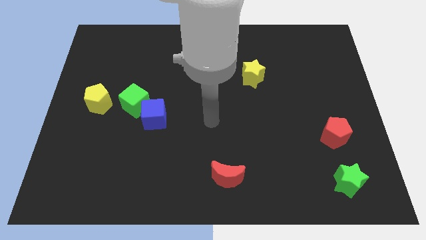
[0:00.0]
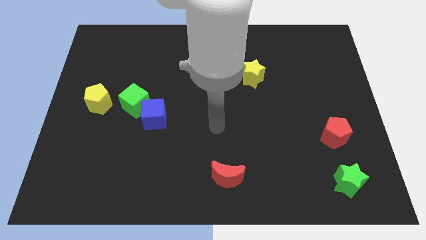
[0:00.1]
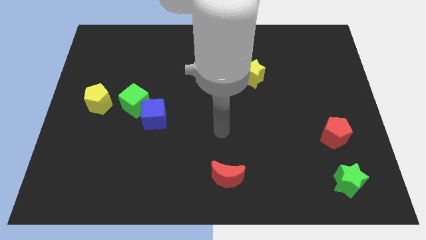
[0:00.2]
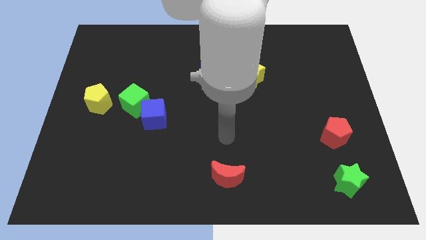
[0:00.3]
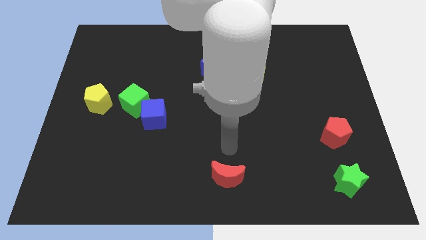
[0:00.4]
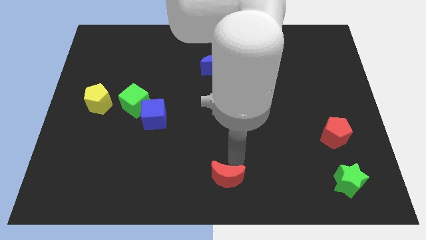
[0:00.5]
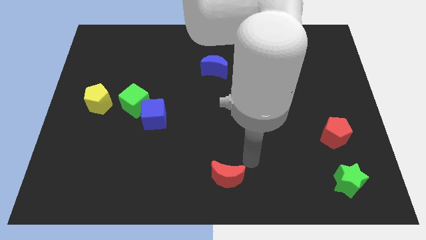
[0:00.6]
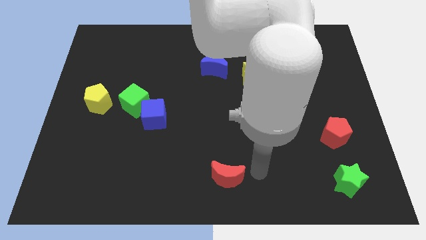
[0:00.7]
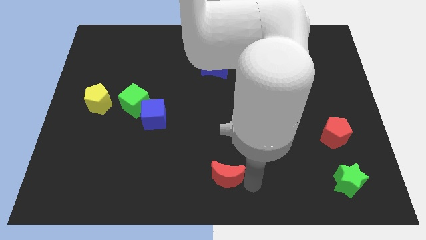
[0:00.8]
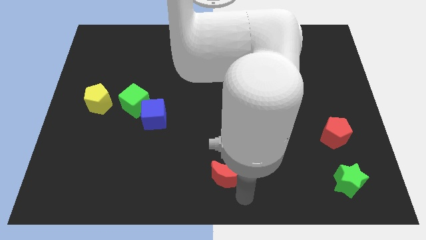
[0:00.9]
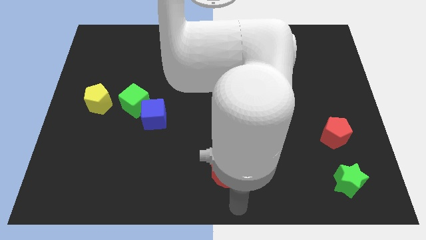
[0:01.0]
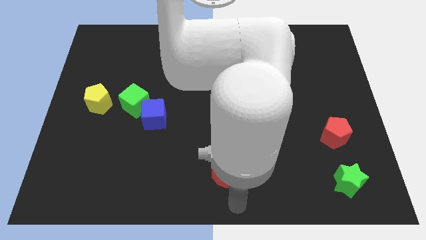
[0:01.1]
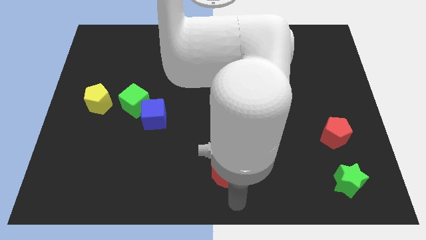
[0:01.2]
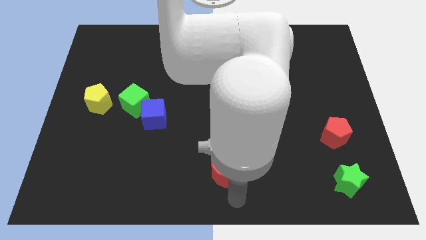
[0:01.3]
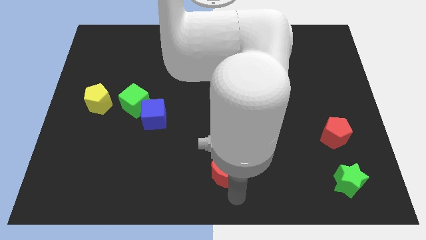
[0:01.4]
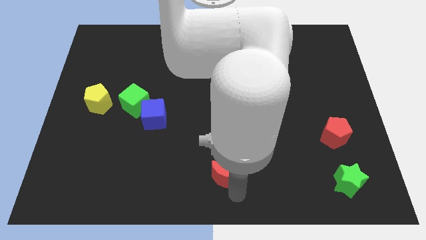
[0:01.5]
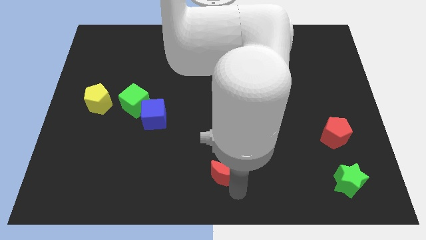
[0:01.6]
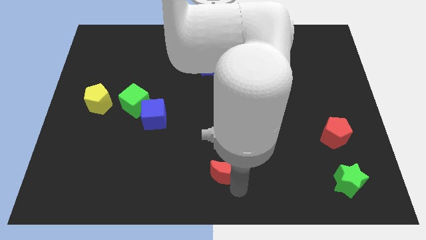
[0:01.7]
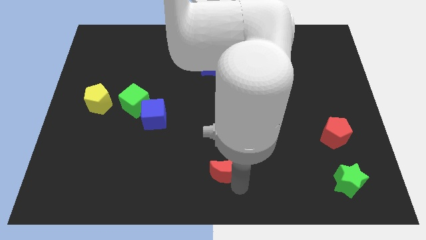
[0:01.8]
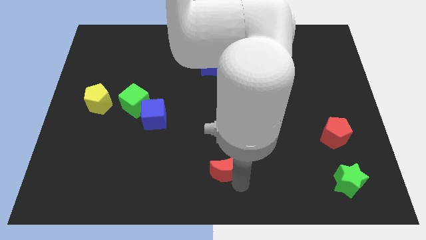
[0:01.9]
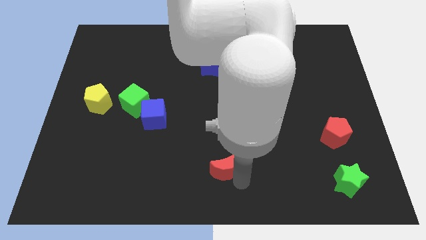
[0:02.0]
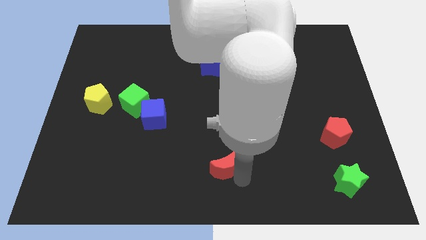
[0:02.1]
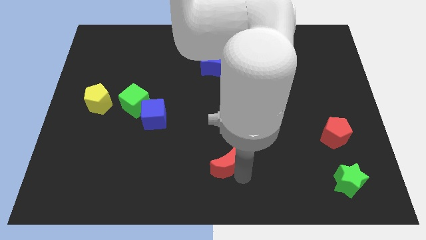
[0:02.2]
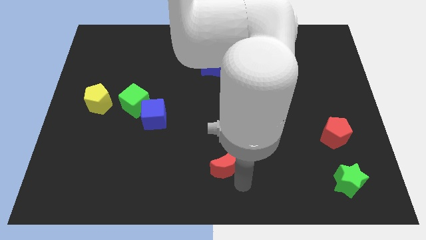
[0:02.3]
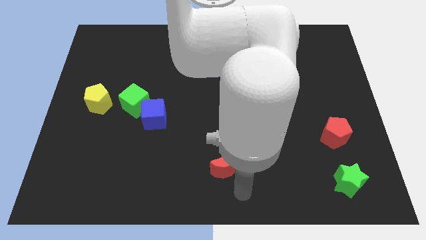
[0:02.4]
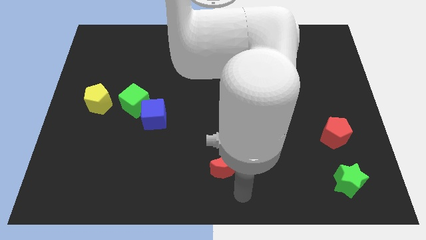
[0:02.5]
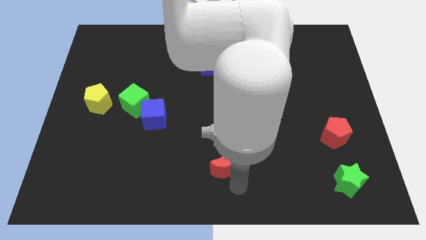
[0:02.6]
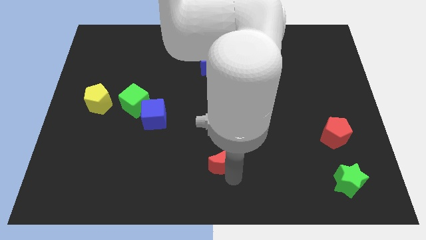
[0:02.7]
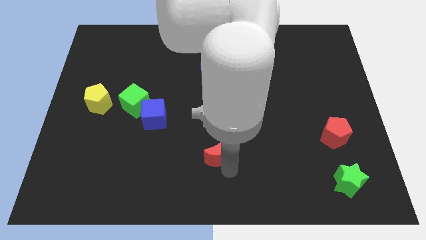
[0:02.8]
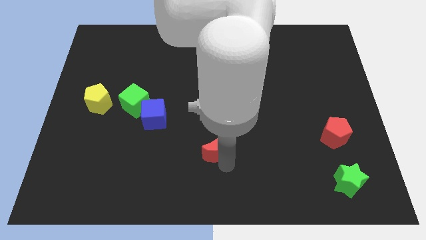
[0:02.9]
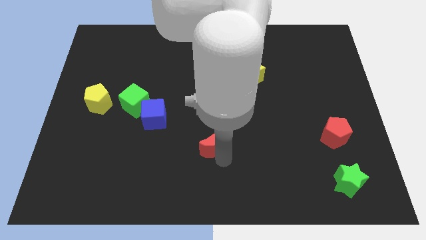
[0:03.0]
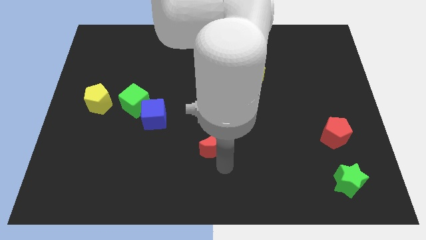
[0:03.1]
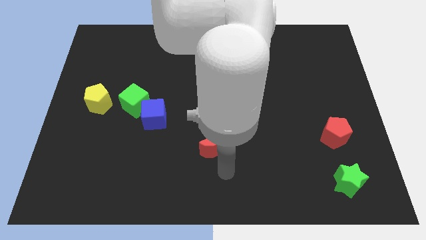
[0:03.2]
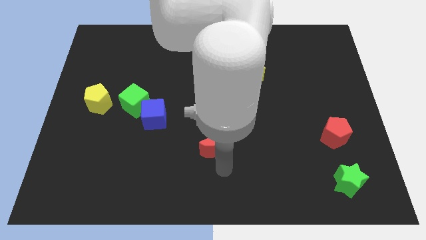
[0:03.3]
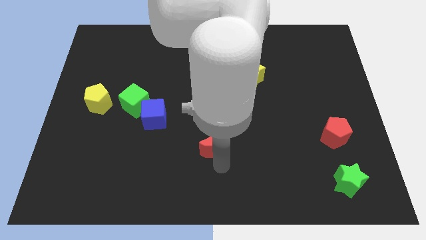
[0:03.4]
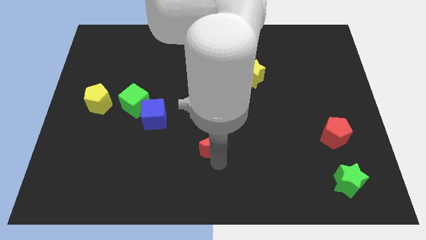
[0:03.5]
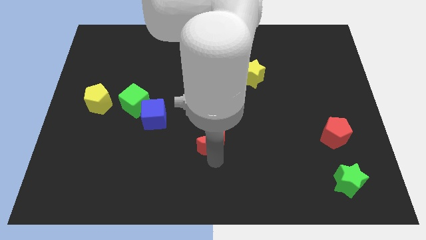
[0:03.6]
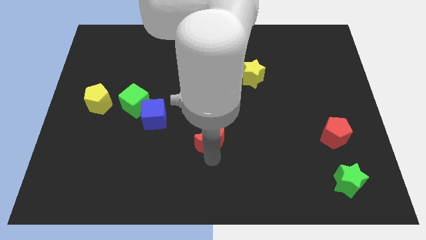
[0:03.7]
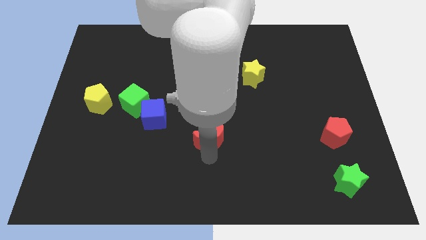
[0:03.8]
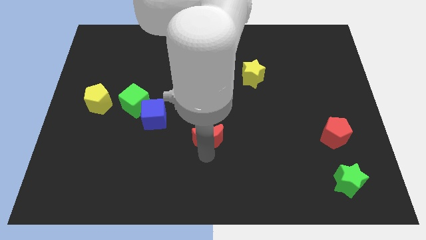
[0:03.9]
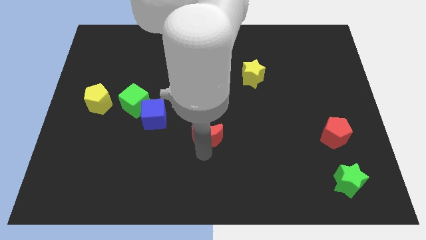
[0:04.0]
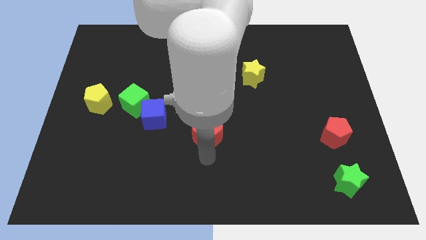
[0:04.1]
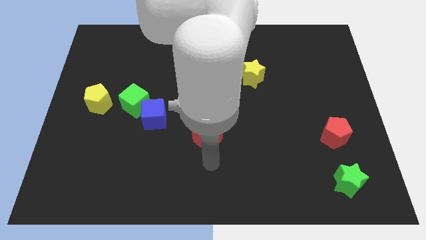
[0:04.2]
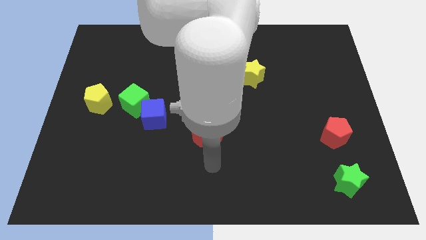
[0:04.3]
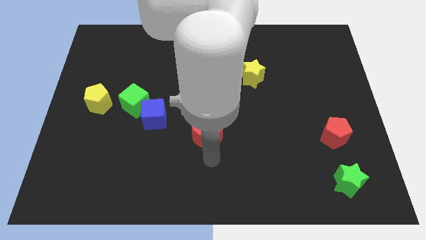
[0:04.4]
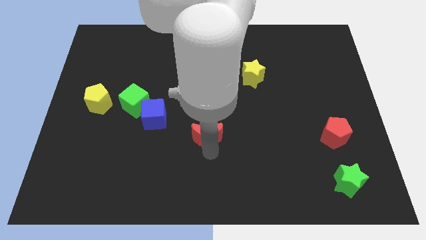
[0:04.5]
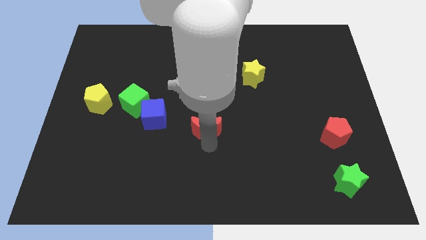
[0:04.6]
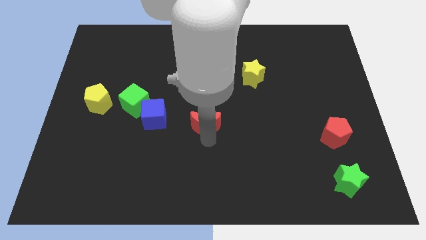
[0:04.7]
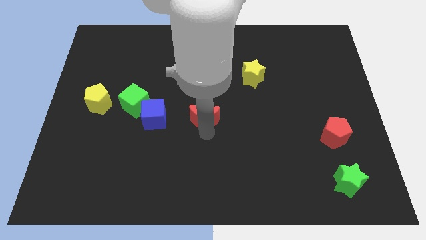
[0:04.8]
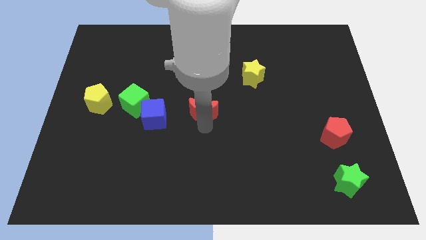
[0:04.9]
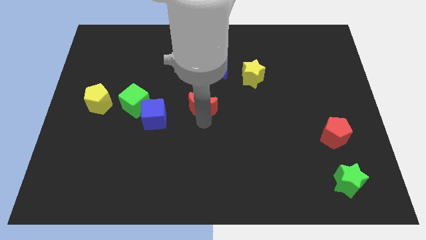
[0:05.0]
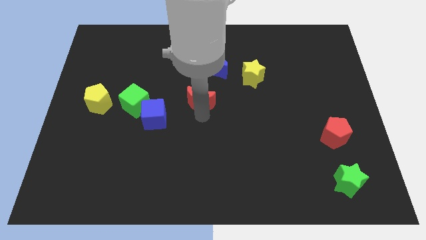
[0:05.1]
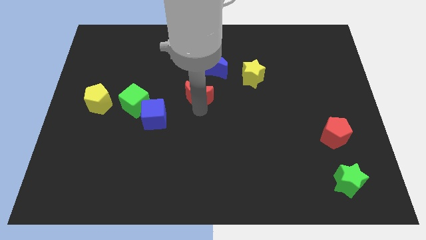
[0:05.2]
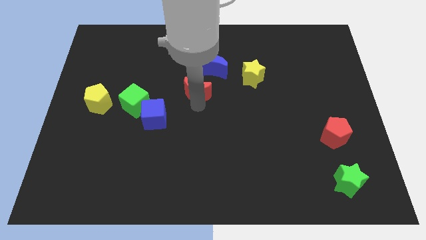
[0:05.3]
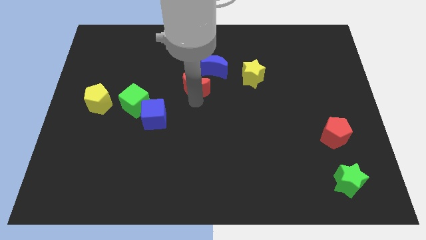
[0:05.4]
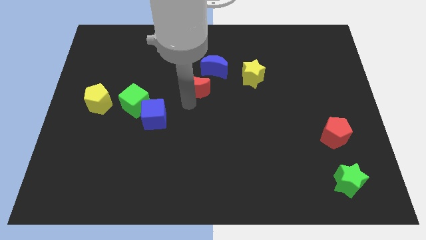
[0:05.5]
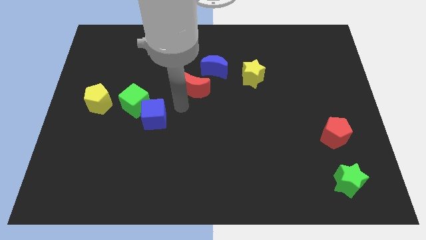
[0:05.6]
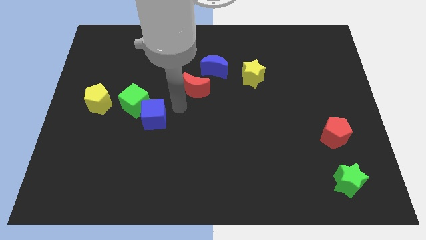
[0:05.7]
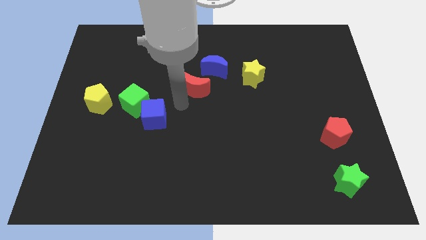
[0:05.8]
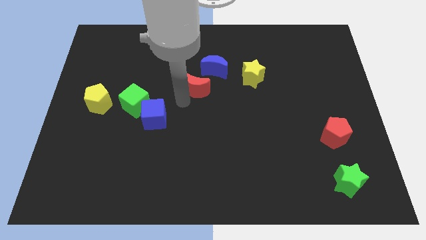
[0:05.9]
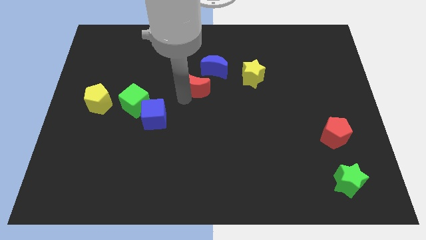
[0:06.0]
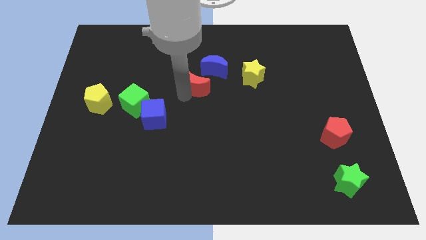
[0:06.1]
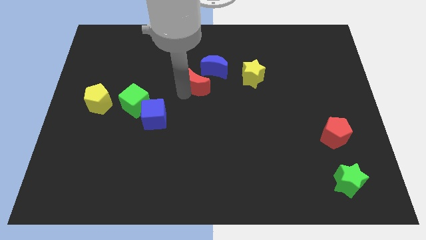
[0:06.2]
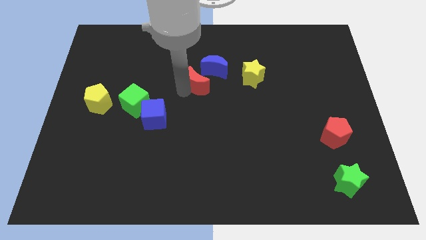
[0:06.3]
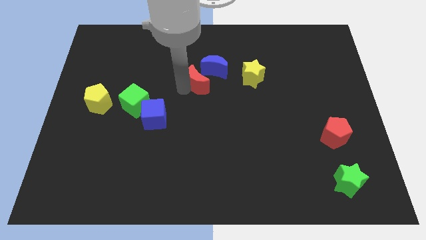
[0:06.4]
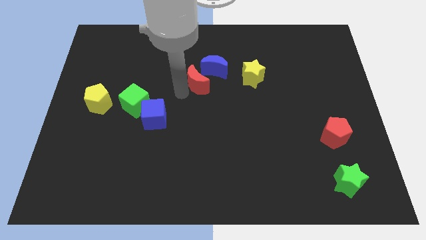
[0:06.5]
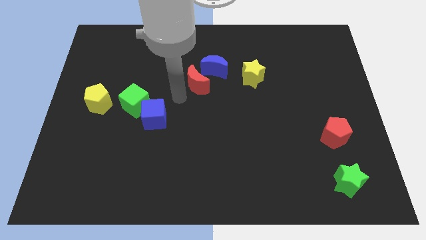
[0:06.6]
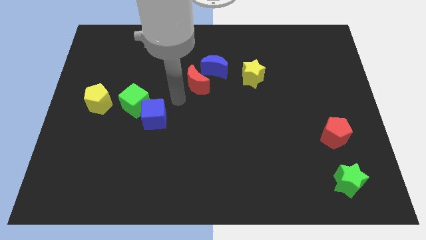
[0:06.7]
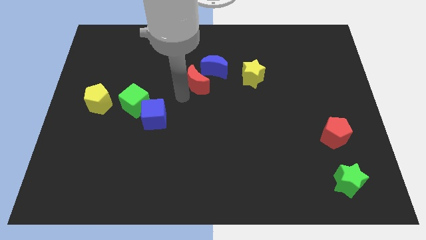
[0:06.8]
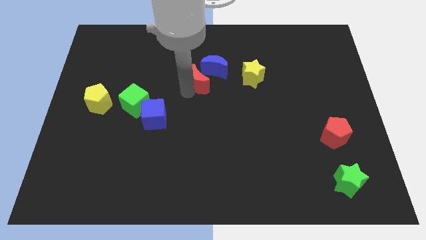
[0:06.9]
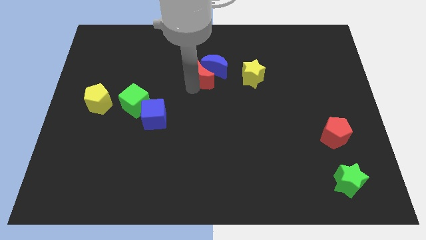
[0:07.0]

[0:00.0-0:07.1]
push the red moon next to the blue moon
